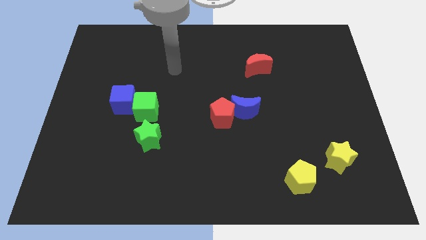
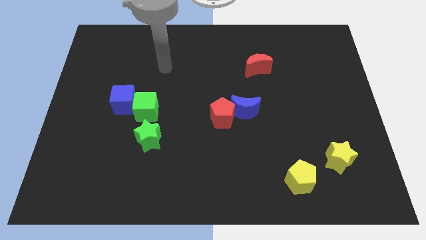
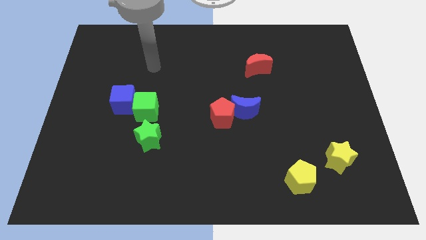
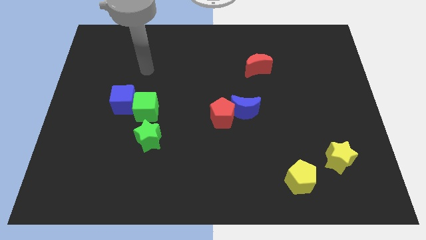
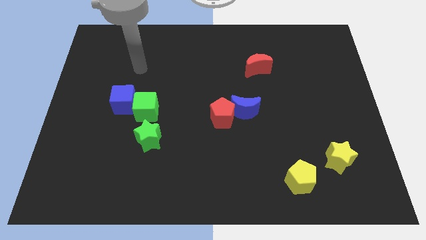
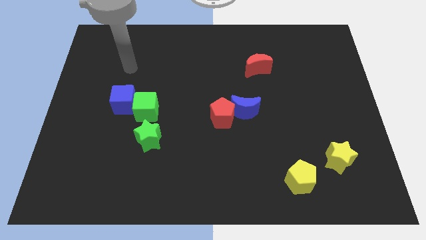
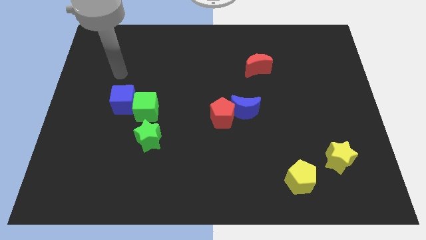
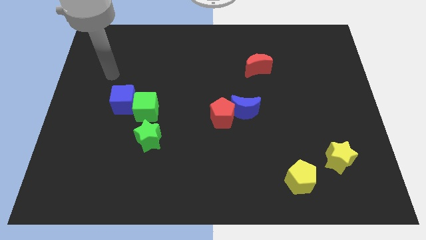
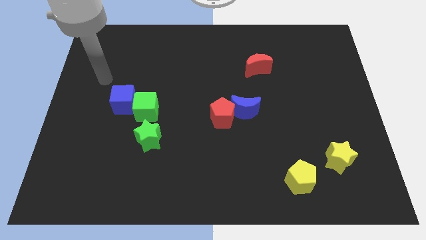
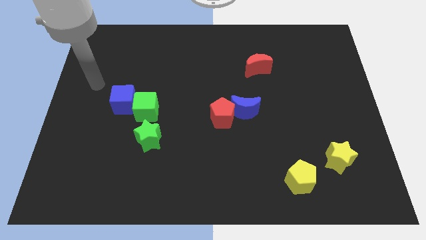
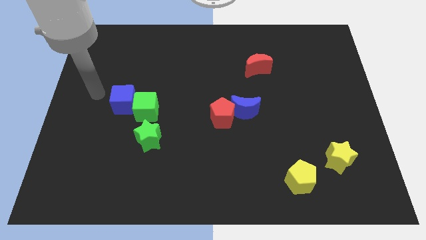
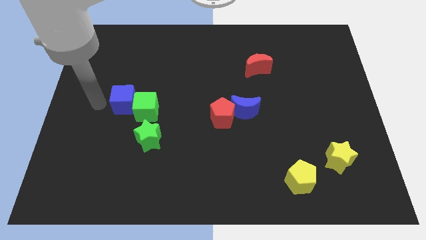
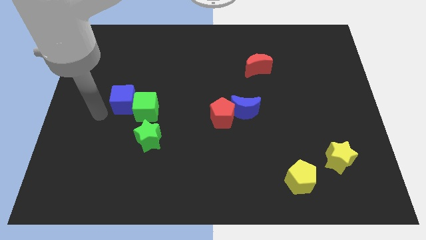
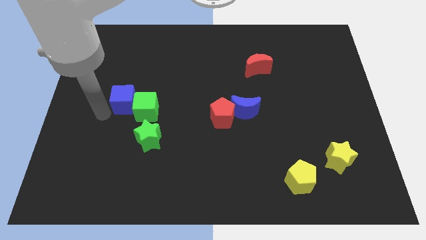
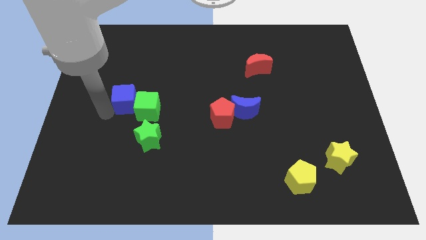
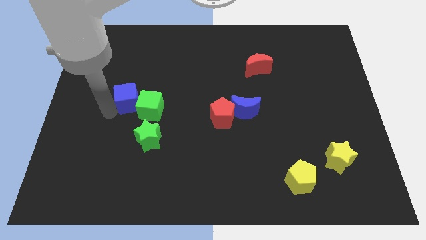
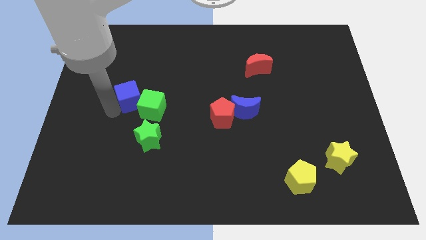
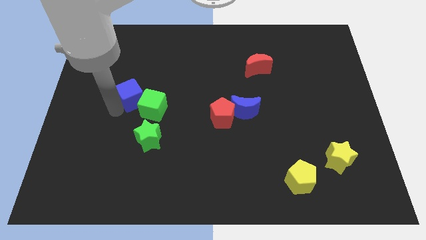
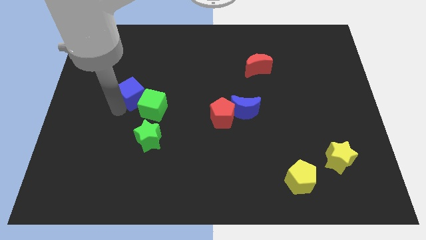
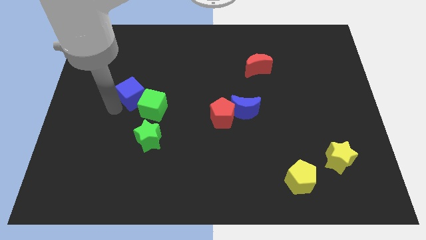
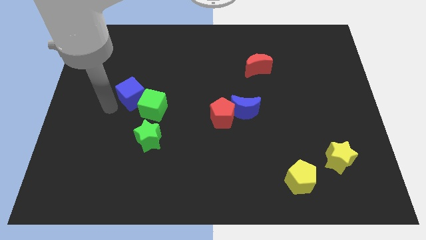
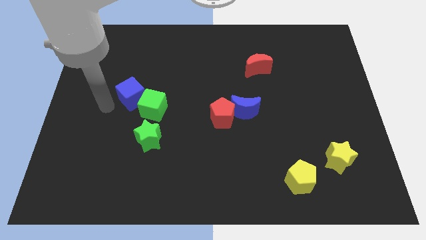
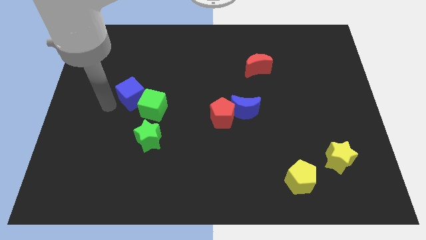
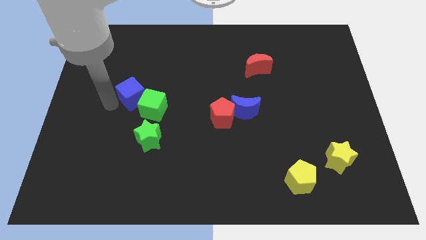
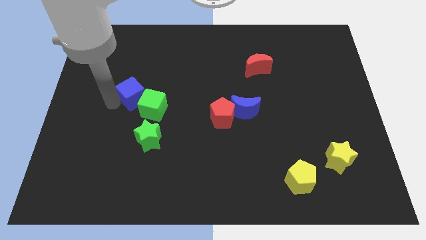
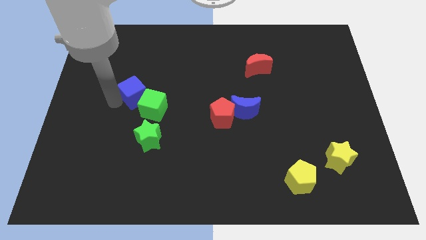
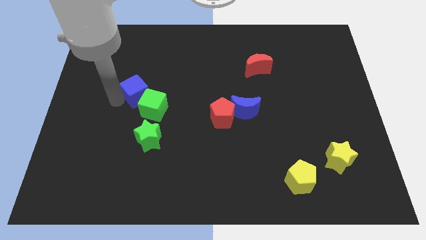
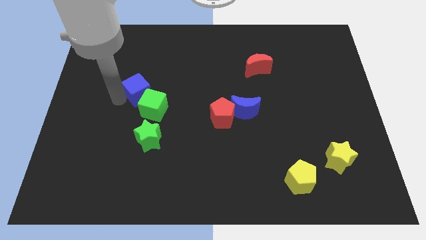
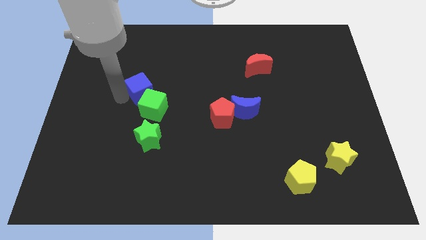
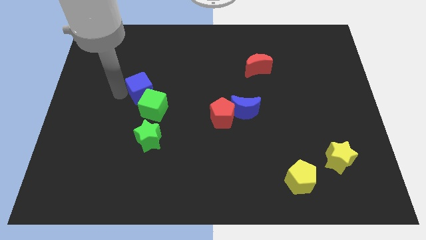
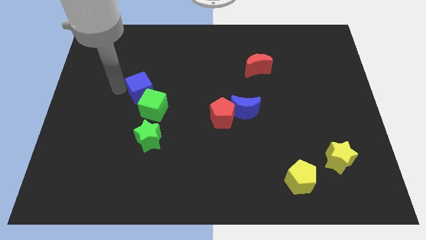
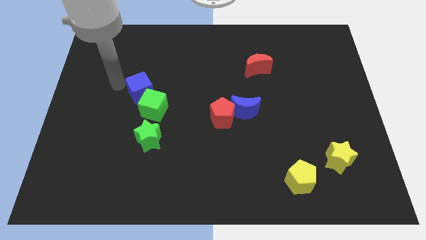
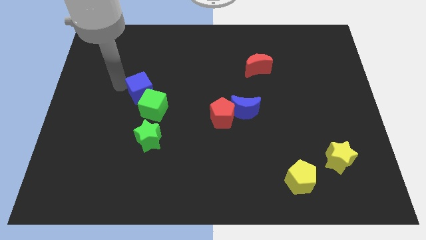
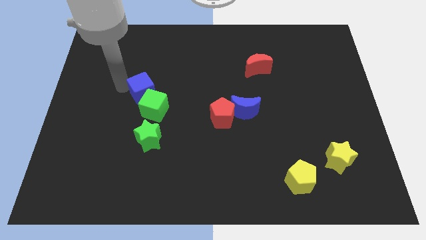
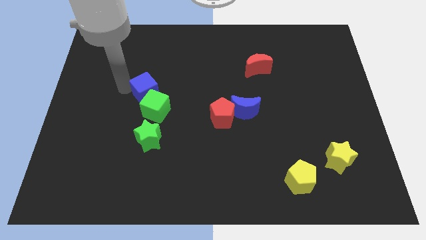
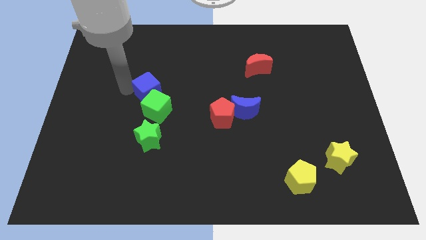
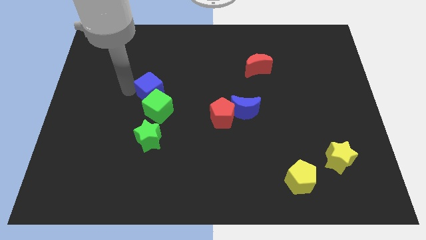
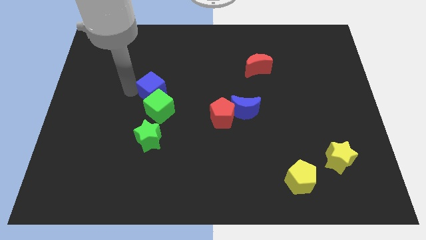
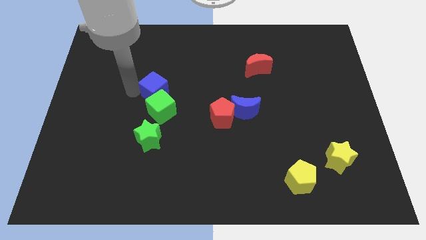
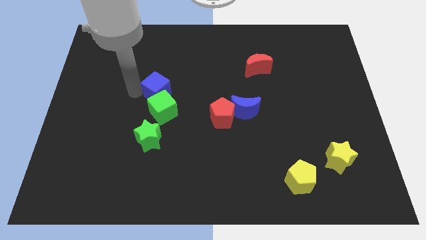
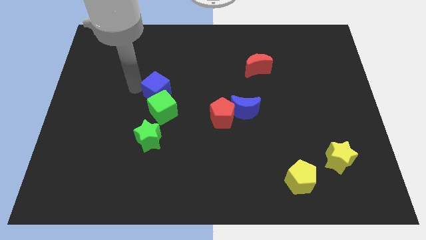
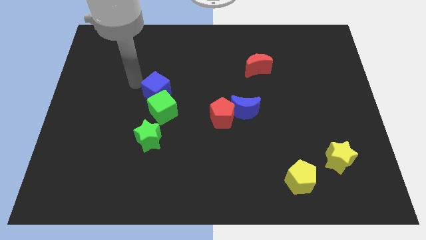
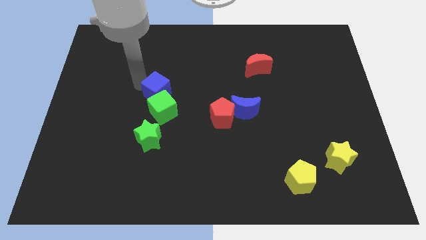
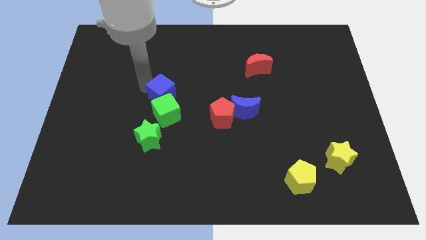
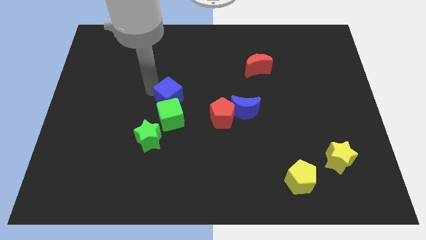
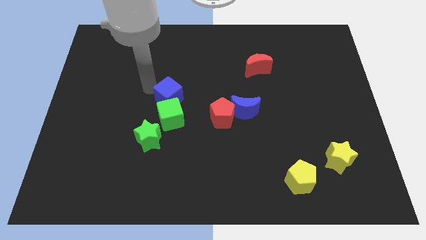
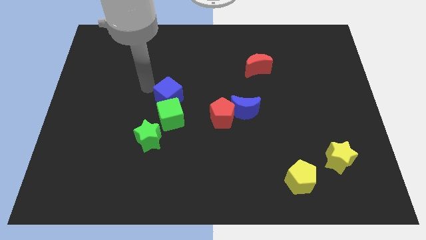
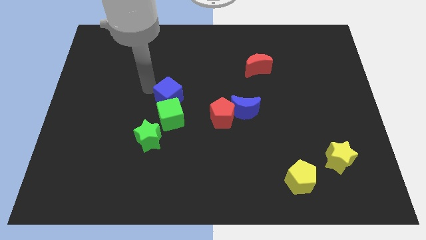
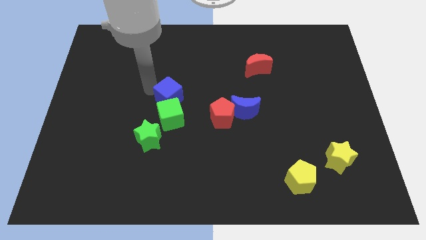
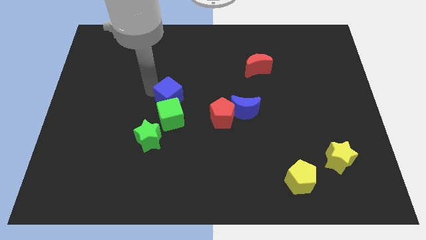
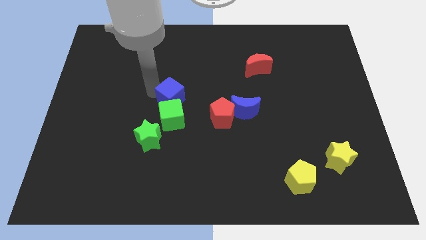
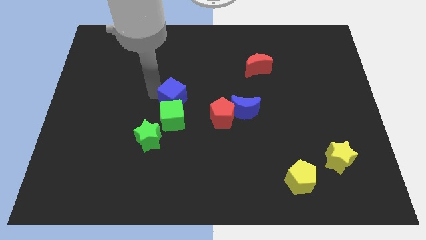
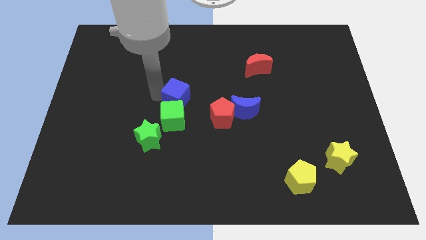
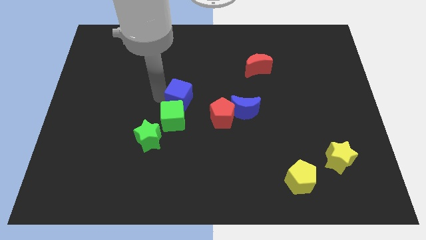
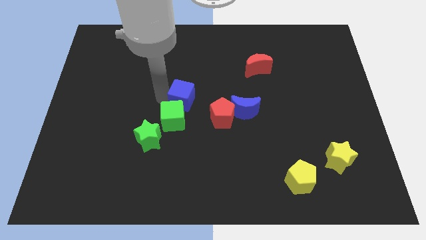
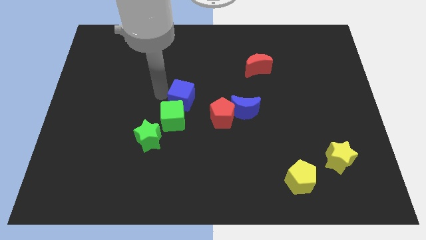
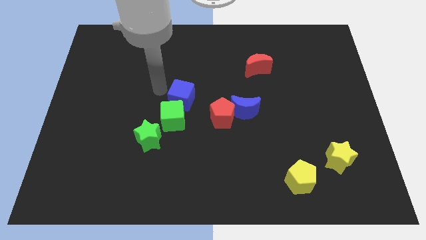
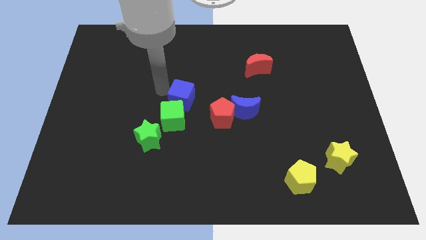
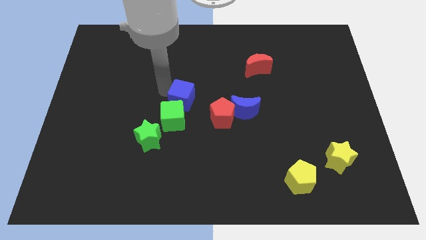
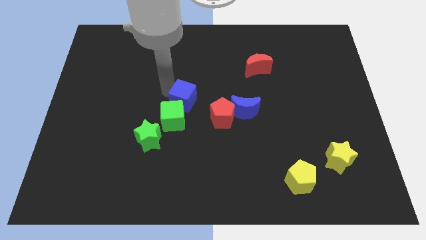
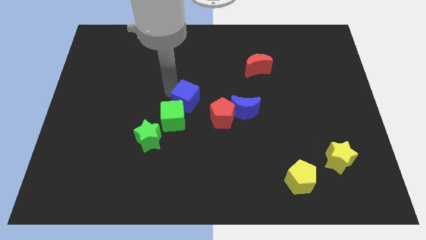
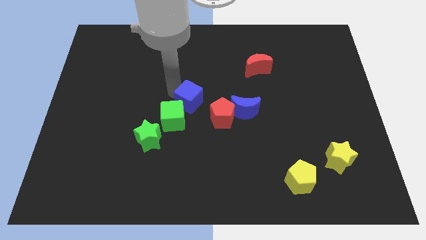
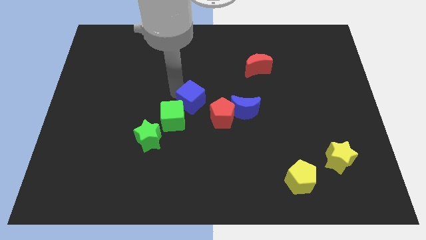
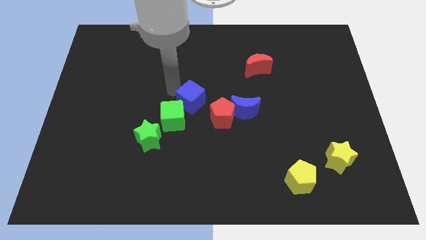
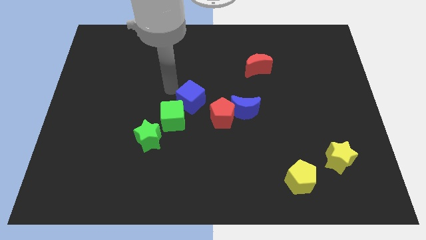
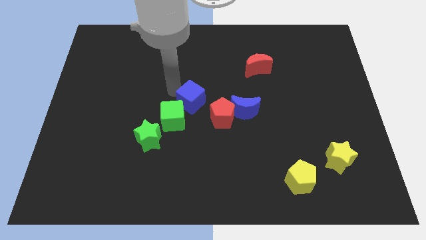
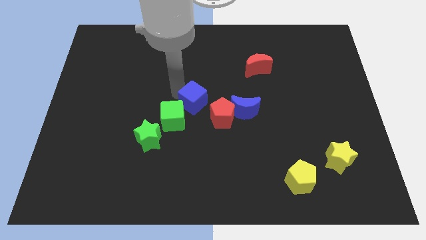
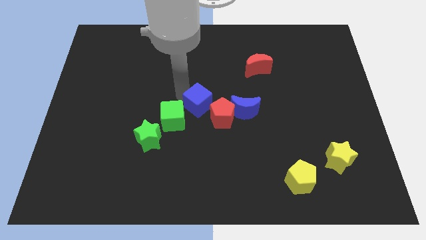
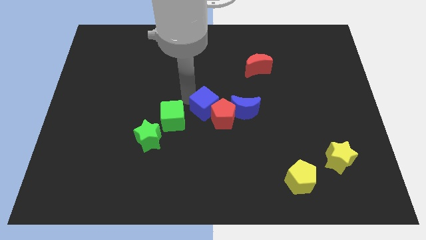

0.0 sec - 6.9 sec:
move the blue cube towards the red pentagon

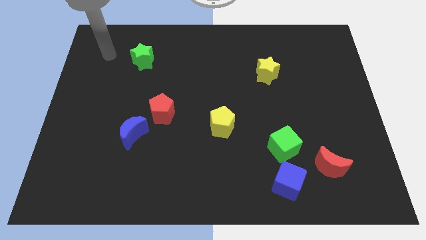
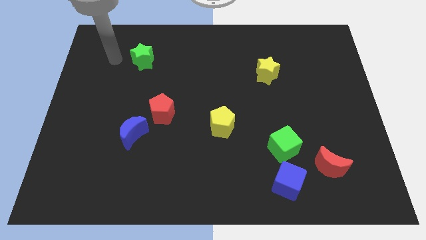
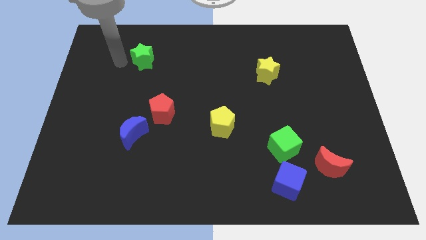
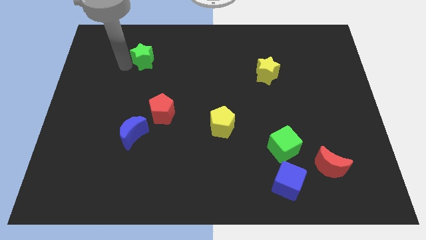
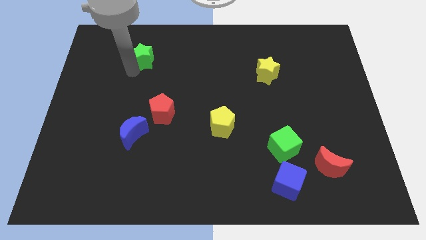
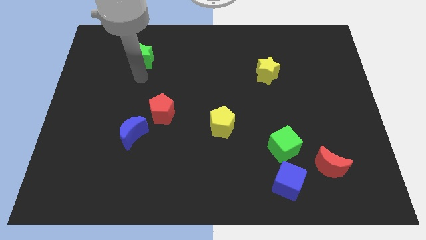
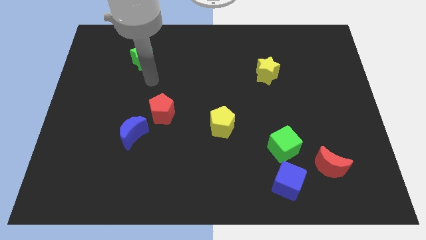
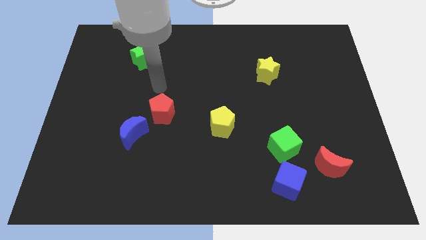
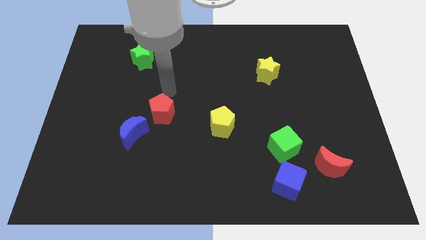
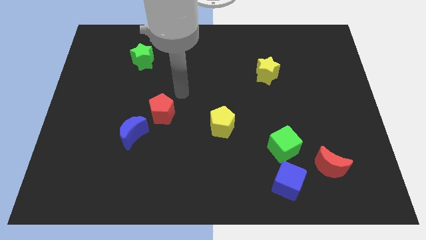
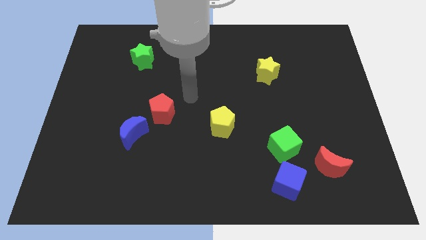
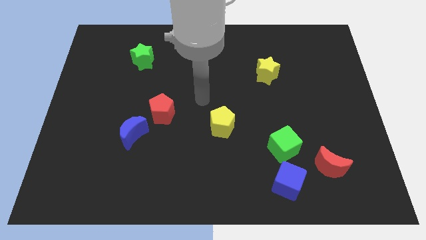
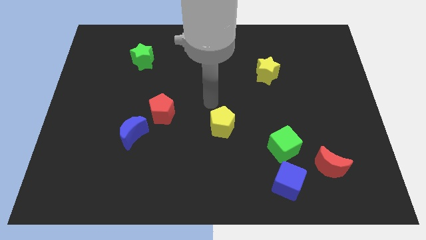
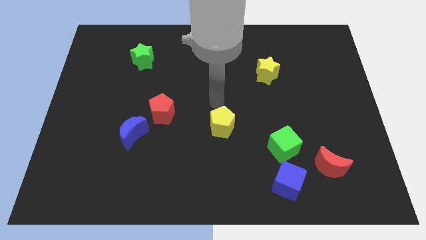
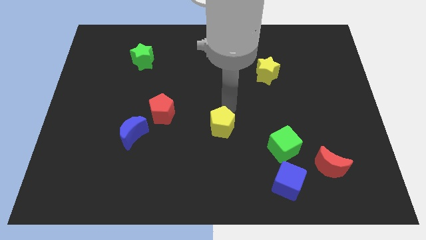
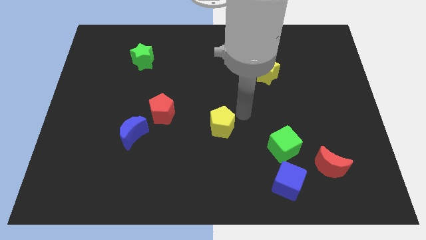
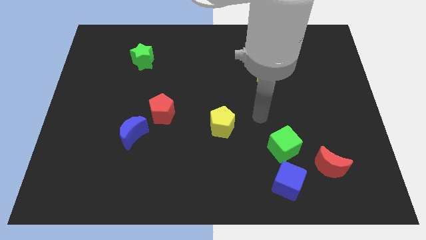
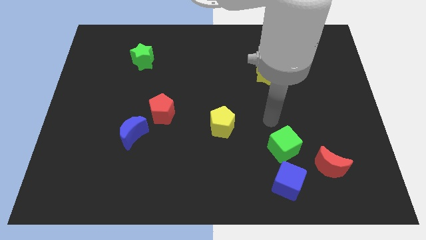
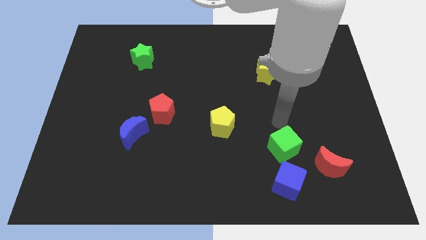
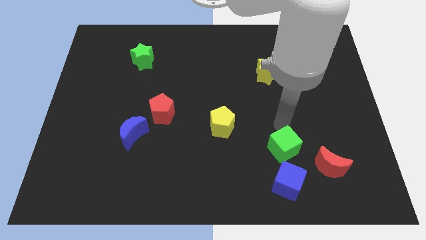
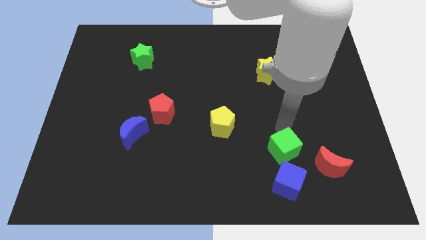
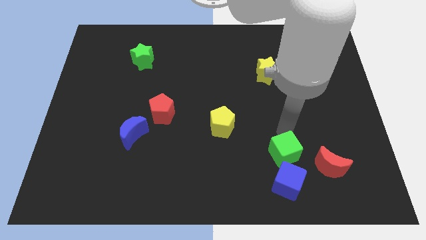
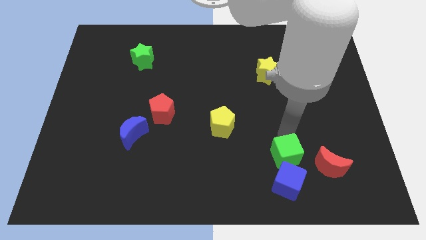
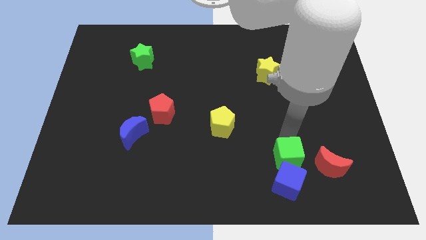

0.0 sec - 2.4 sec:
slide the green cube close to the blue cube
